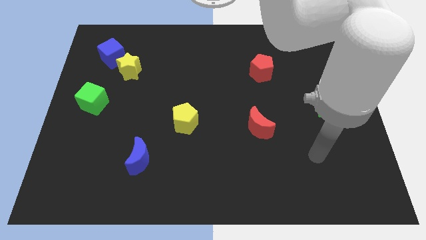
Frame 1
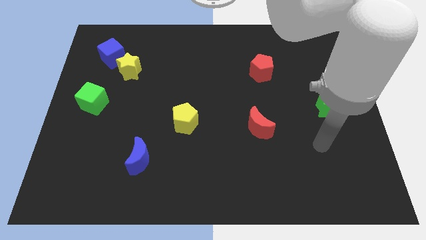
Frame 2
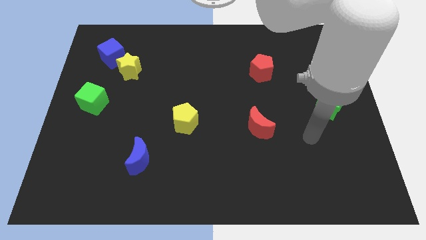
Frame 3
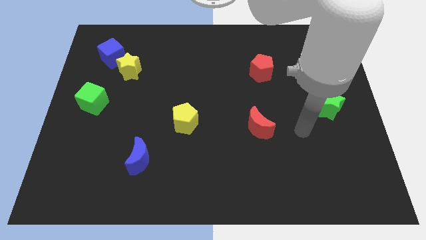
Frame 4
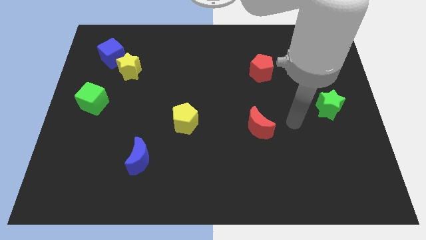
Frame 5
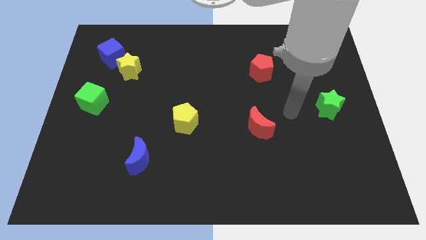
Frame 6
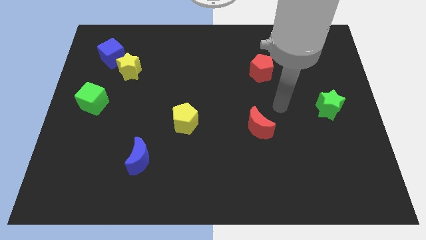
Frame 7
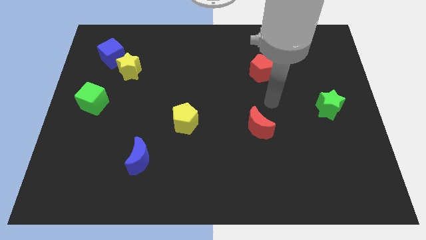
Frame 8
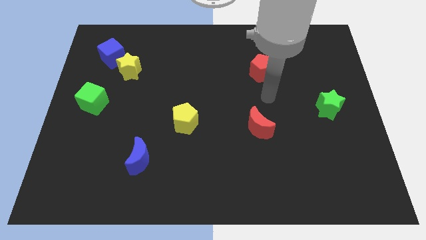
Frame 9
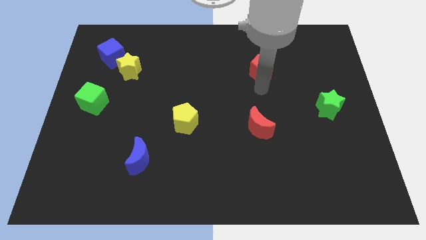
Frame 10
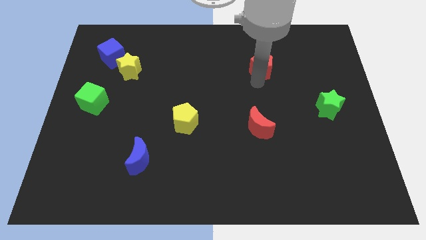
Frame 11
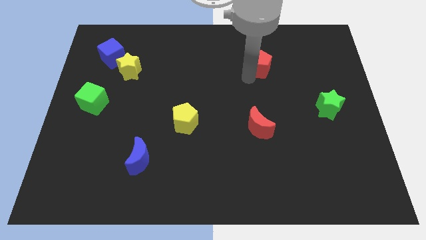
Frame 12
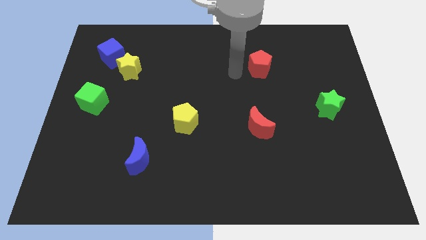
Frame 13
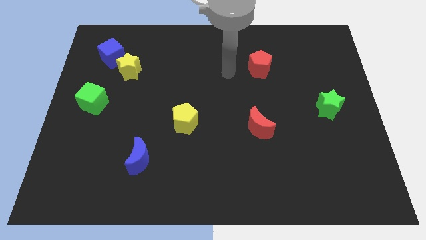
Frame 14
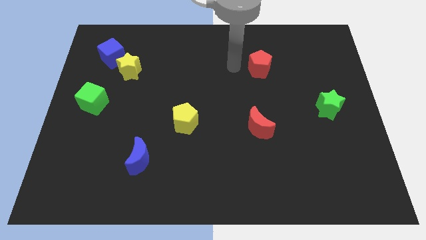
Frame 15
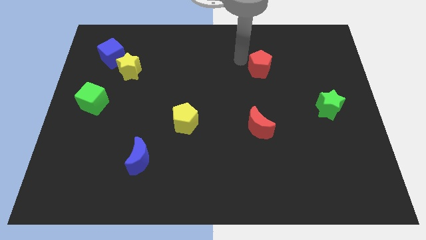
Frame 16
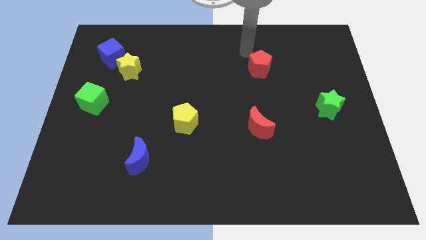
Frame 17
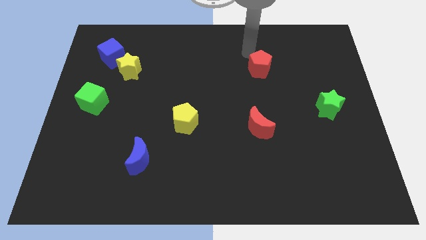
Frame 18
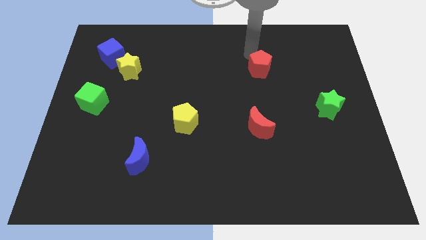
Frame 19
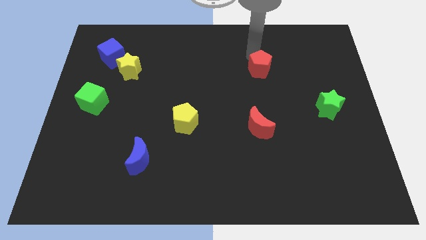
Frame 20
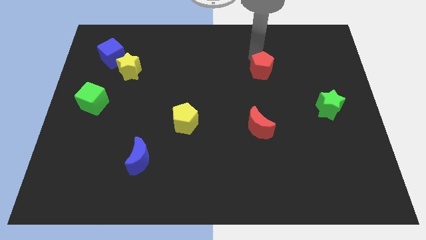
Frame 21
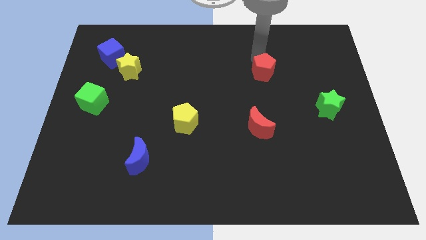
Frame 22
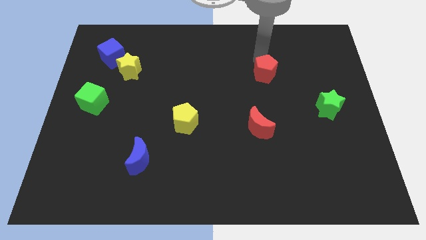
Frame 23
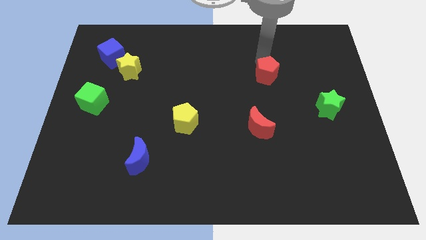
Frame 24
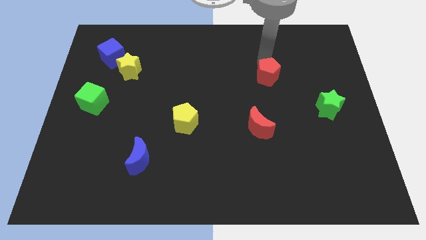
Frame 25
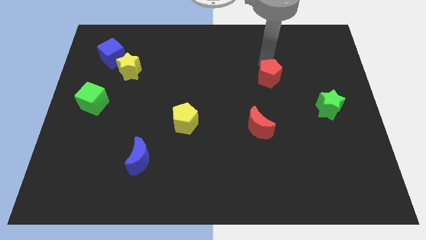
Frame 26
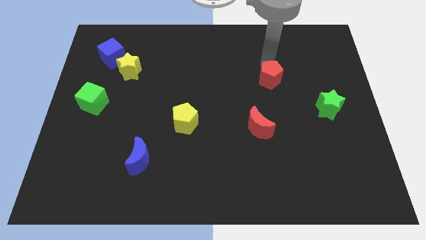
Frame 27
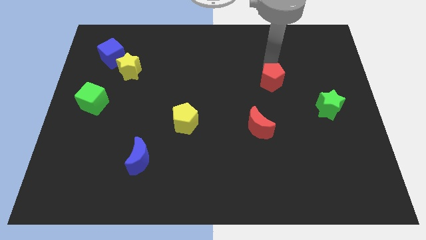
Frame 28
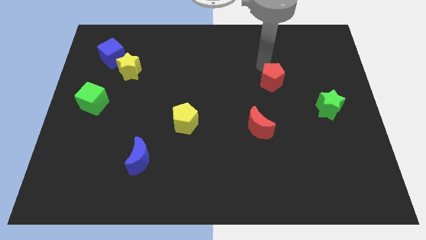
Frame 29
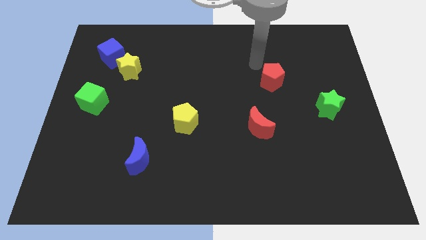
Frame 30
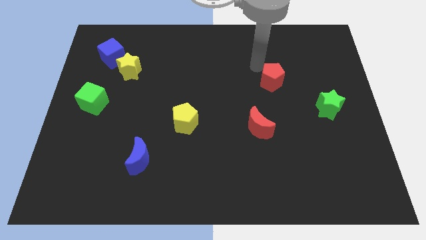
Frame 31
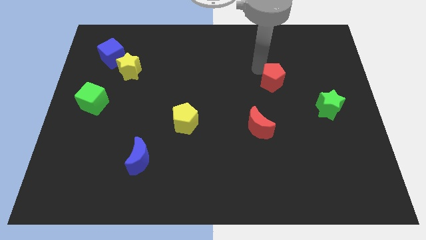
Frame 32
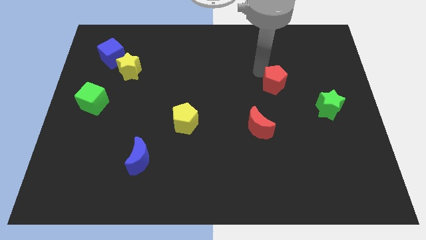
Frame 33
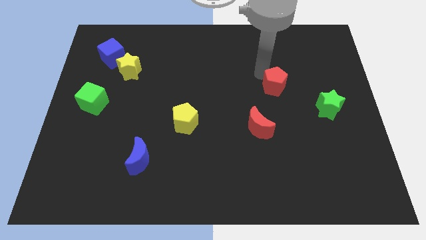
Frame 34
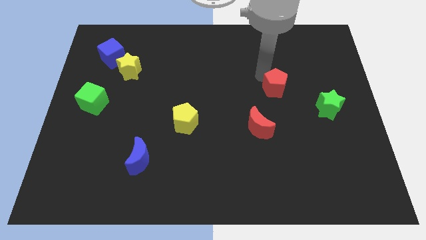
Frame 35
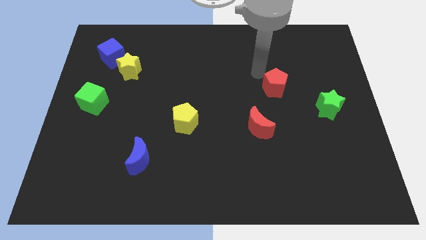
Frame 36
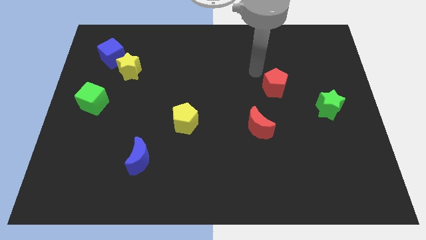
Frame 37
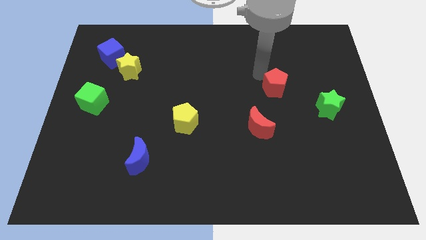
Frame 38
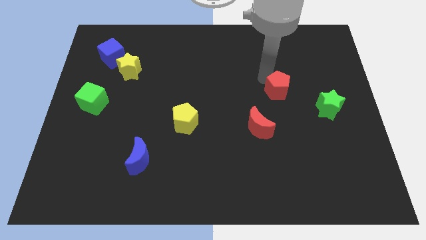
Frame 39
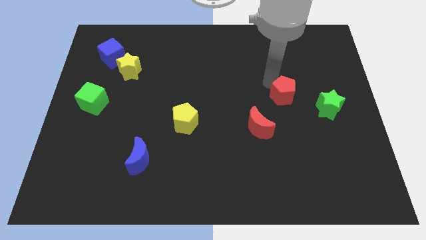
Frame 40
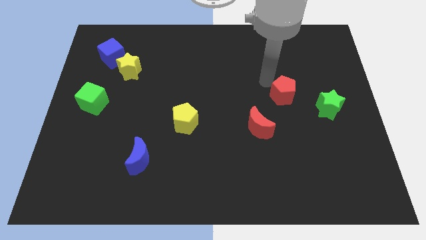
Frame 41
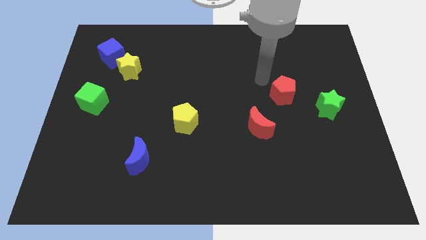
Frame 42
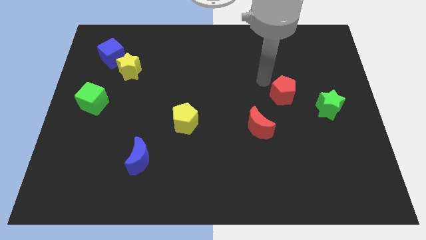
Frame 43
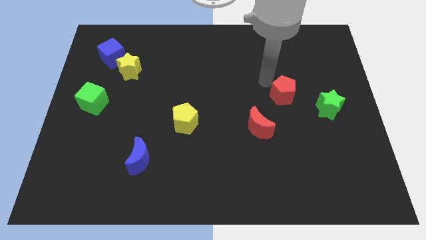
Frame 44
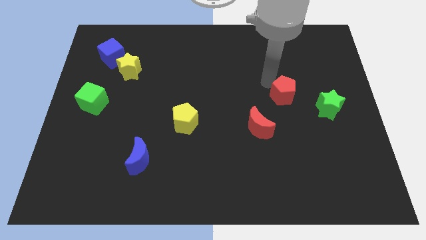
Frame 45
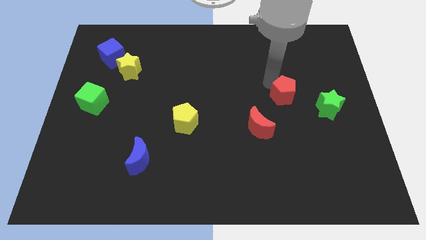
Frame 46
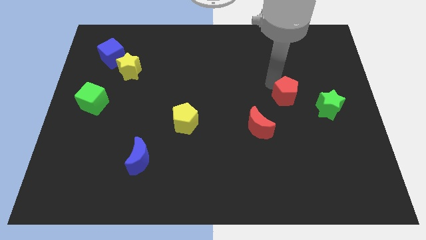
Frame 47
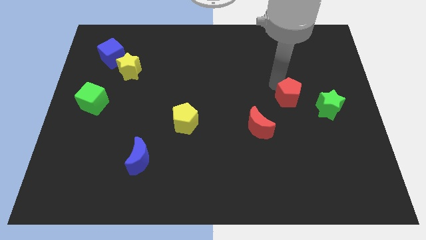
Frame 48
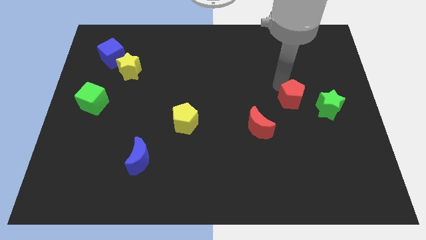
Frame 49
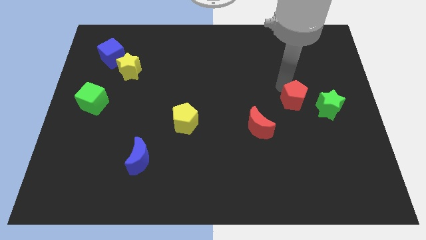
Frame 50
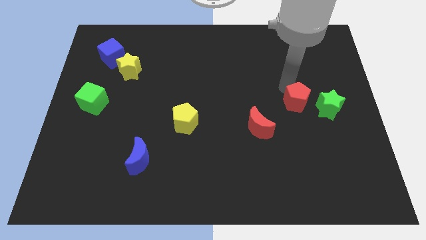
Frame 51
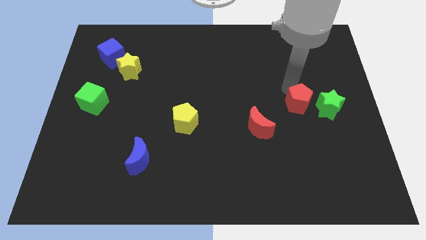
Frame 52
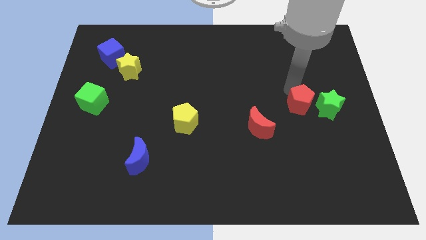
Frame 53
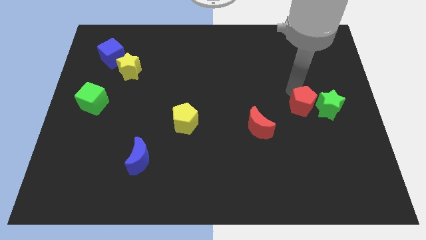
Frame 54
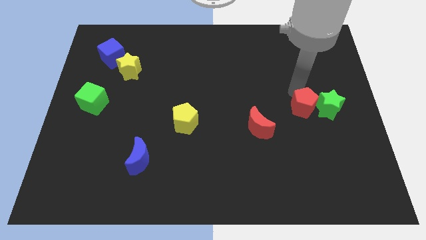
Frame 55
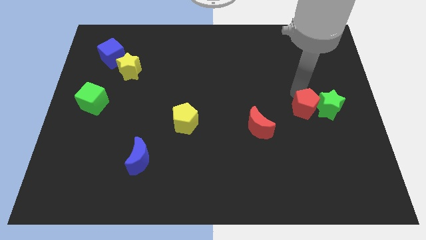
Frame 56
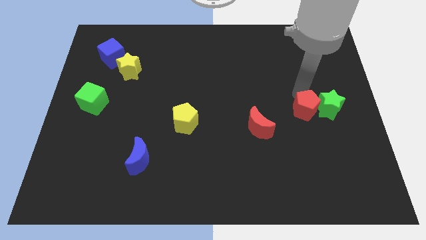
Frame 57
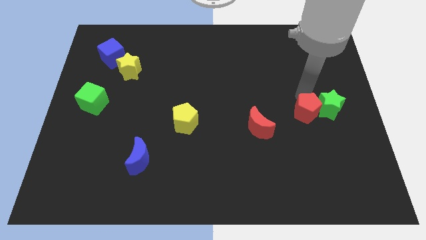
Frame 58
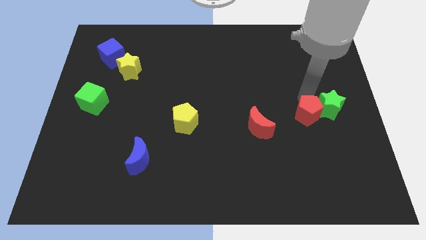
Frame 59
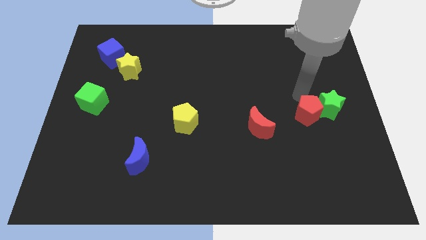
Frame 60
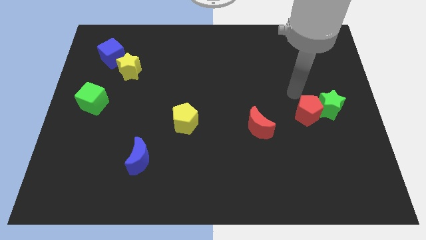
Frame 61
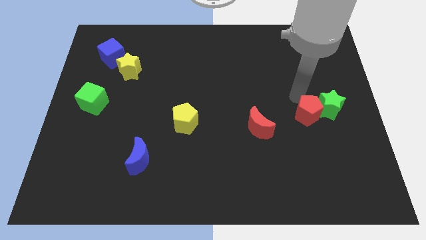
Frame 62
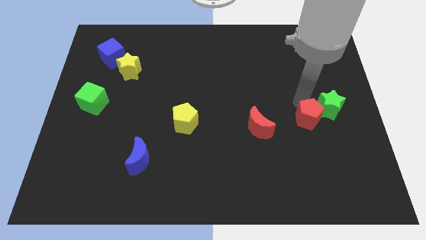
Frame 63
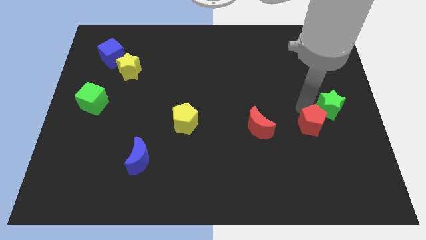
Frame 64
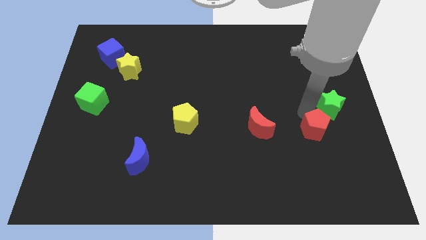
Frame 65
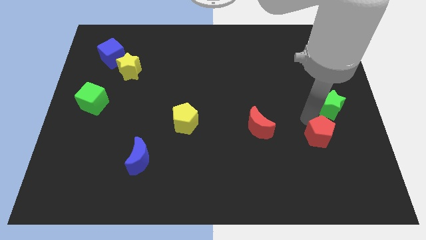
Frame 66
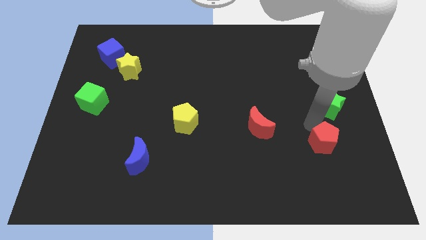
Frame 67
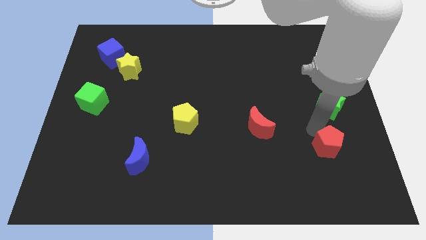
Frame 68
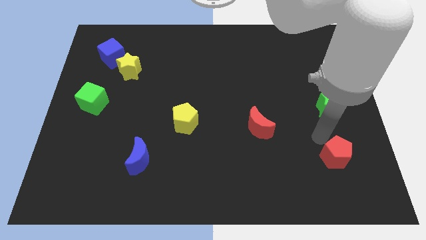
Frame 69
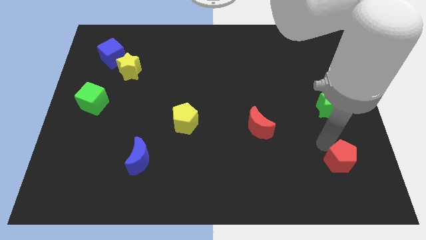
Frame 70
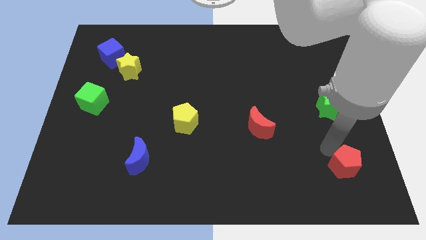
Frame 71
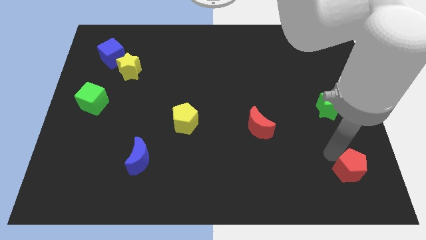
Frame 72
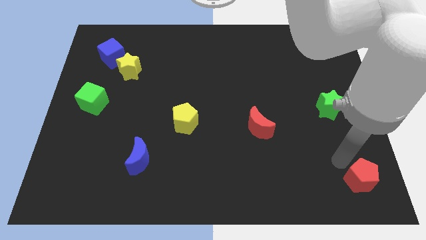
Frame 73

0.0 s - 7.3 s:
push the red pentagon to the bottom right corner
